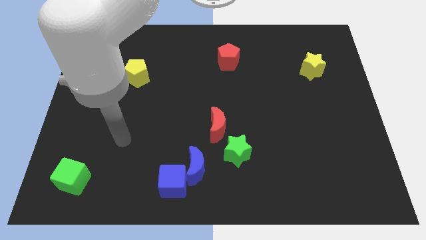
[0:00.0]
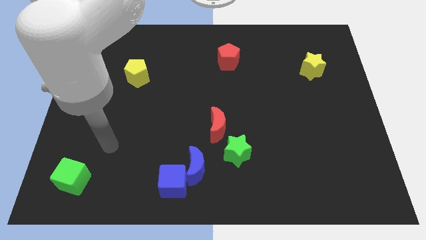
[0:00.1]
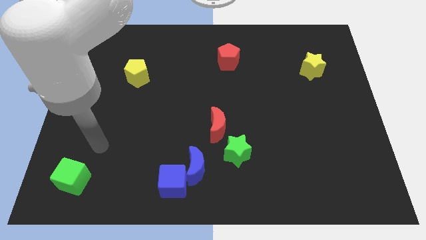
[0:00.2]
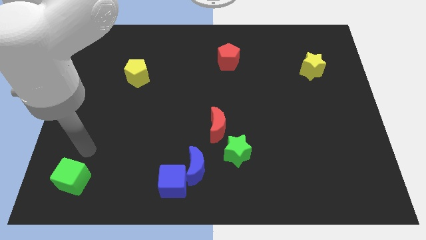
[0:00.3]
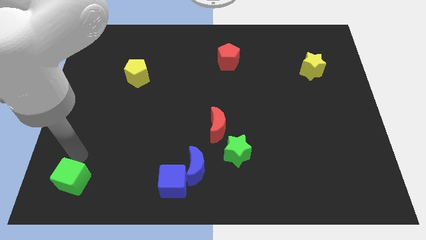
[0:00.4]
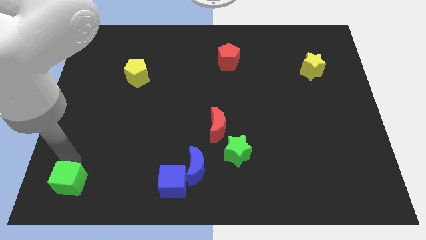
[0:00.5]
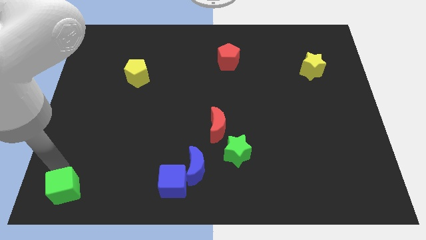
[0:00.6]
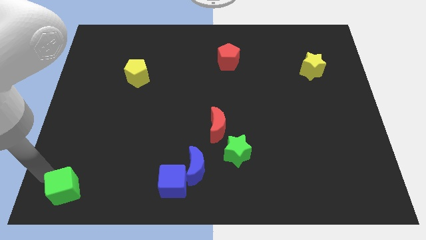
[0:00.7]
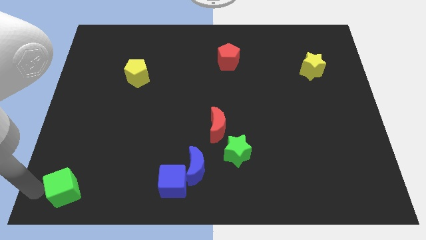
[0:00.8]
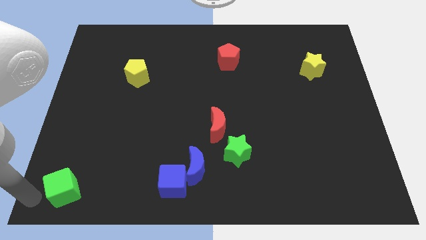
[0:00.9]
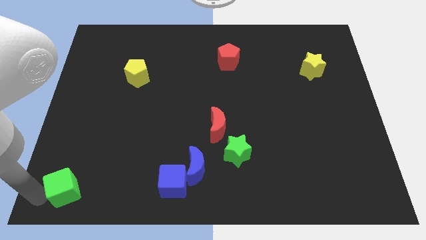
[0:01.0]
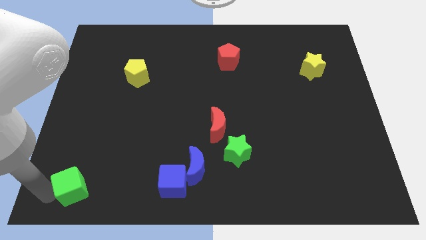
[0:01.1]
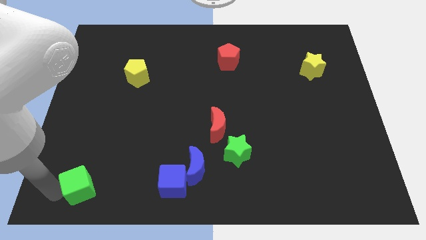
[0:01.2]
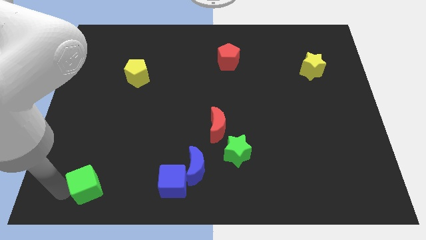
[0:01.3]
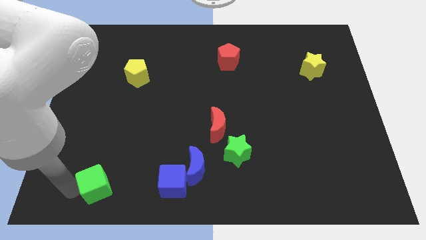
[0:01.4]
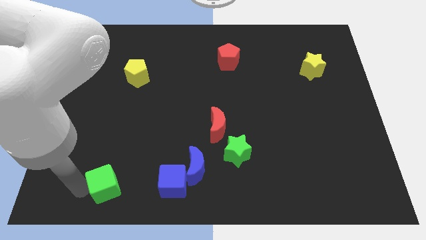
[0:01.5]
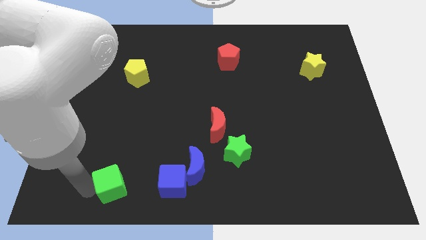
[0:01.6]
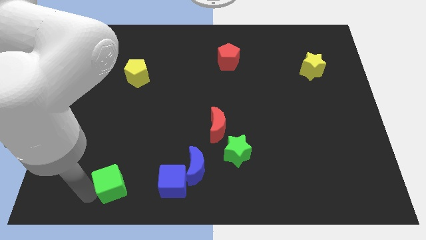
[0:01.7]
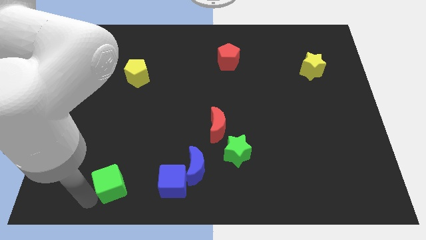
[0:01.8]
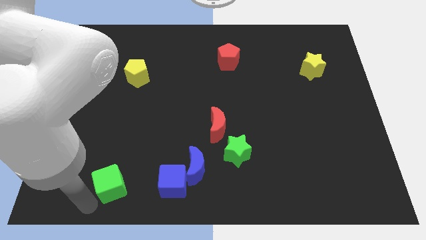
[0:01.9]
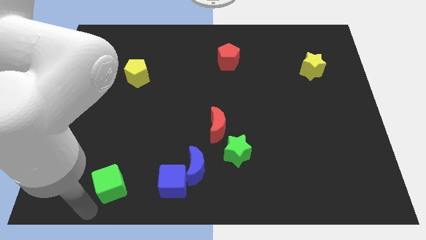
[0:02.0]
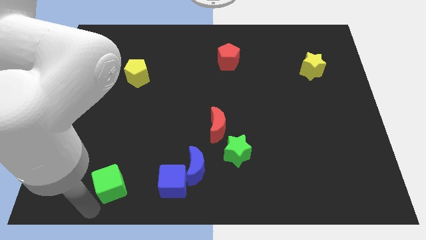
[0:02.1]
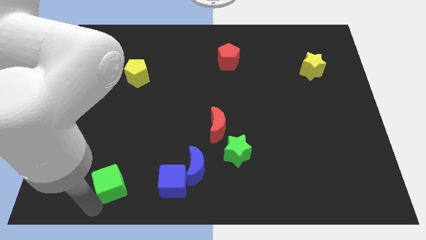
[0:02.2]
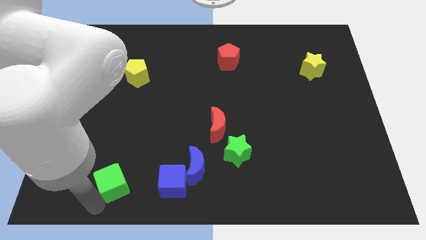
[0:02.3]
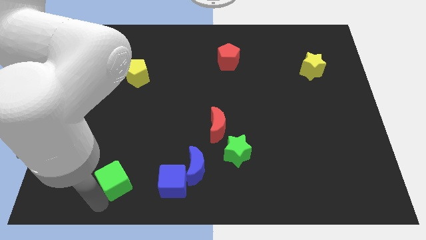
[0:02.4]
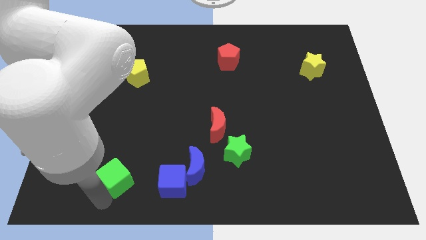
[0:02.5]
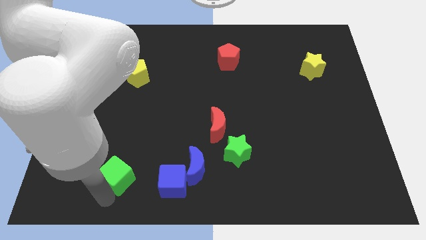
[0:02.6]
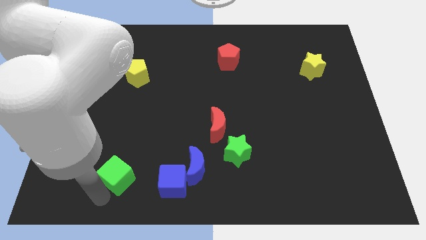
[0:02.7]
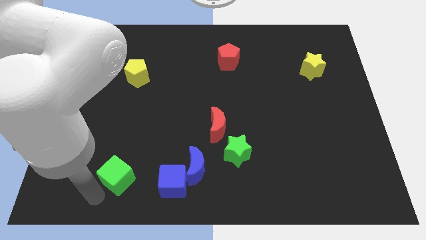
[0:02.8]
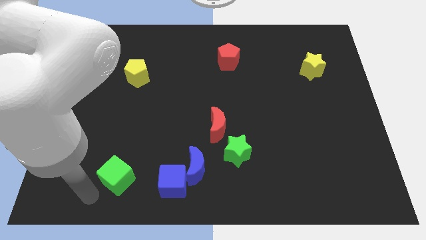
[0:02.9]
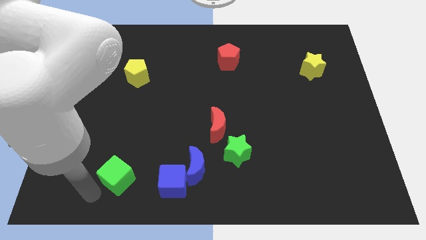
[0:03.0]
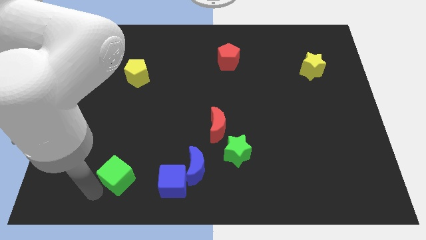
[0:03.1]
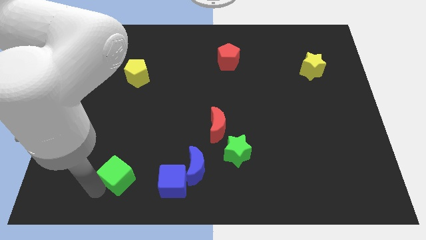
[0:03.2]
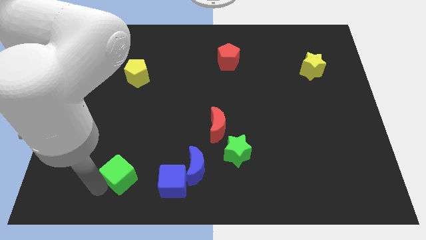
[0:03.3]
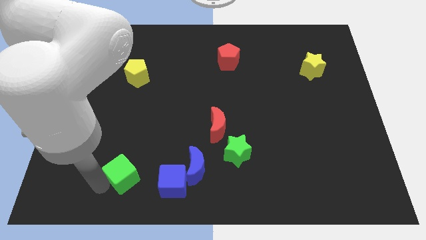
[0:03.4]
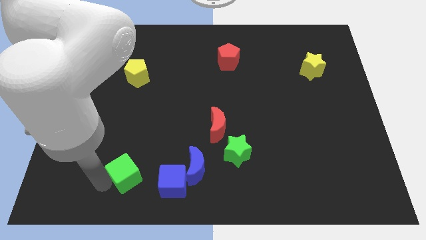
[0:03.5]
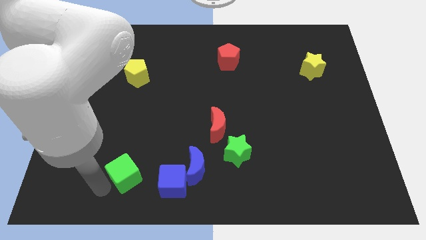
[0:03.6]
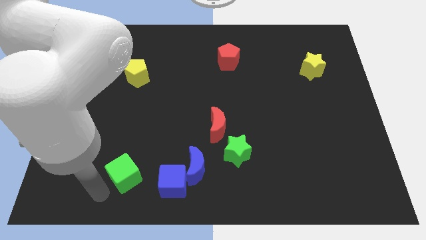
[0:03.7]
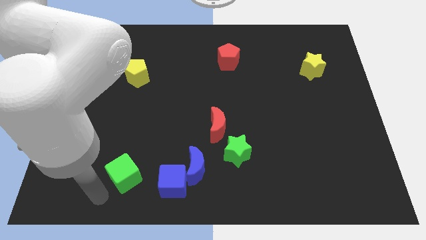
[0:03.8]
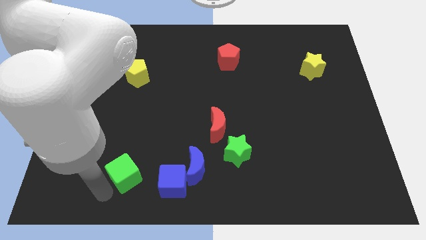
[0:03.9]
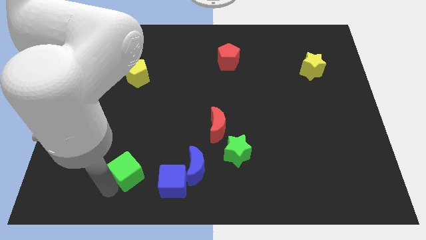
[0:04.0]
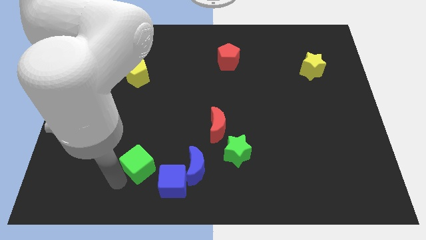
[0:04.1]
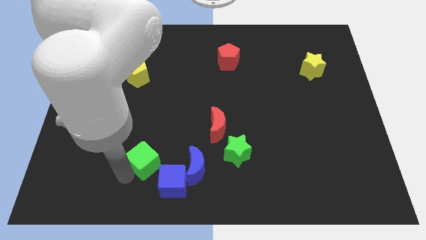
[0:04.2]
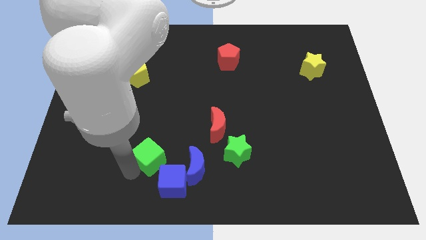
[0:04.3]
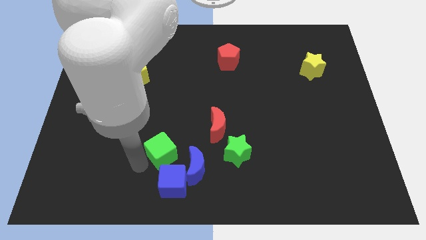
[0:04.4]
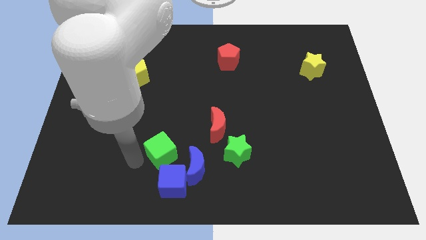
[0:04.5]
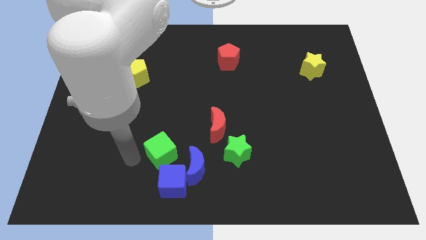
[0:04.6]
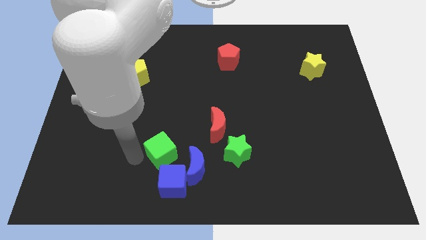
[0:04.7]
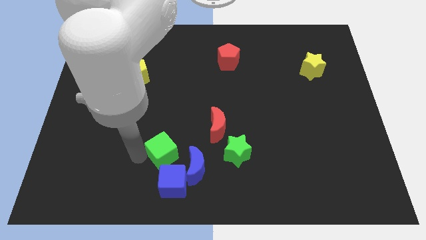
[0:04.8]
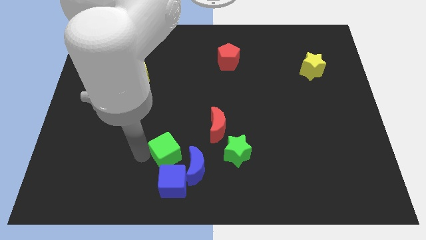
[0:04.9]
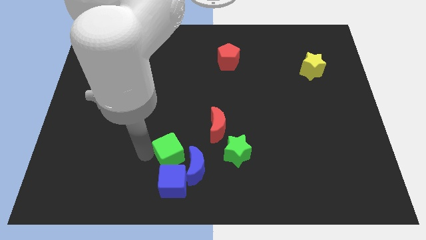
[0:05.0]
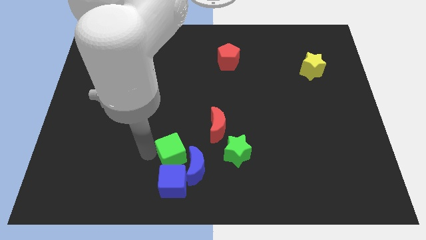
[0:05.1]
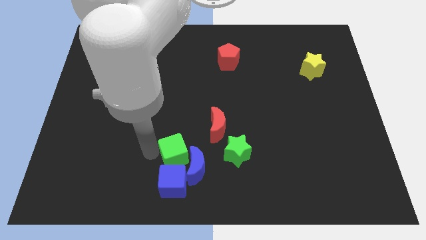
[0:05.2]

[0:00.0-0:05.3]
slide the green cube to the top right of the blue cube

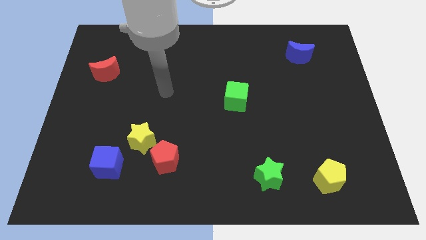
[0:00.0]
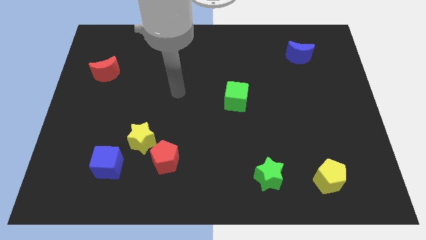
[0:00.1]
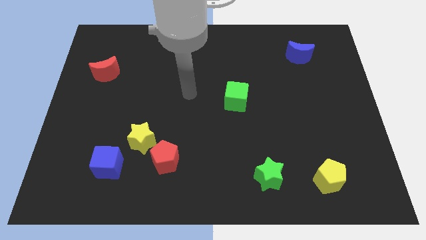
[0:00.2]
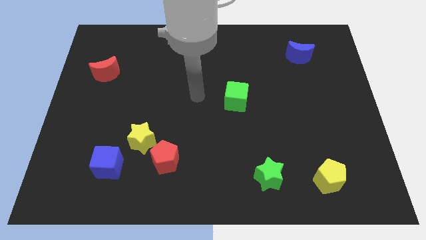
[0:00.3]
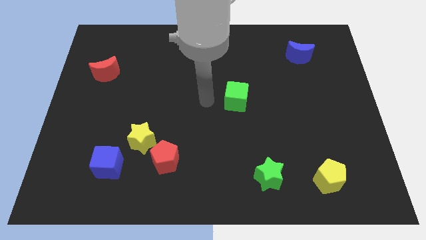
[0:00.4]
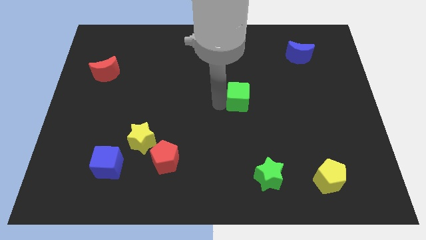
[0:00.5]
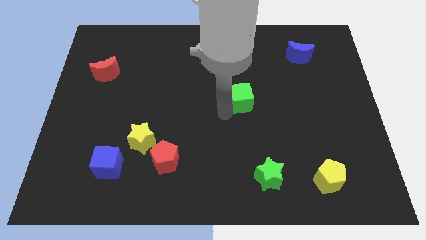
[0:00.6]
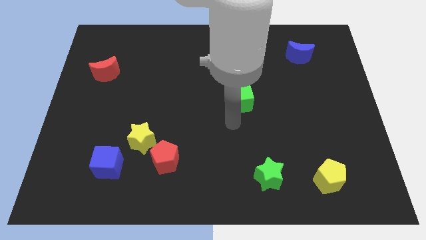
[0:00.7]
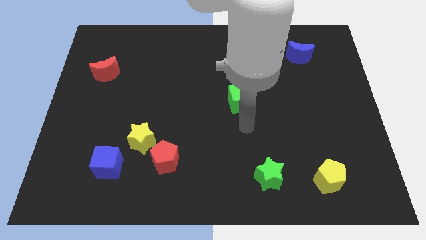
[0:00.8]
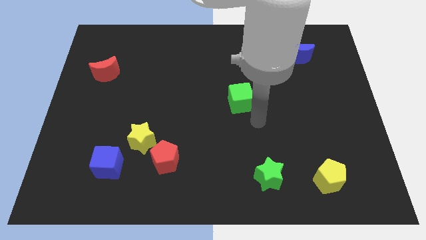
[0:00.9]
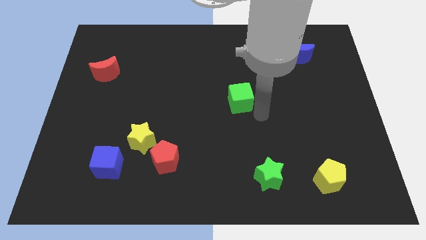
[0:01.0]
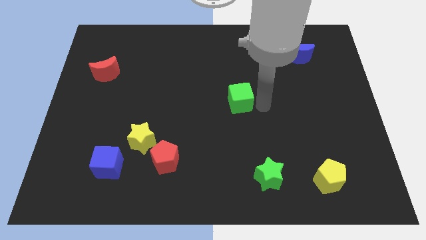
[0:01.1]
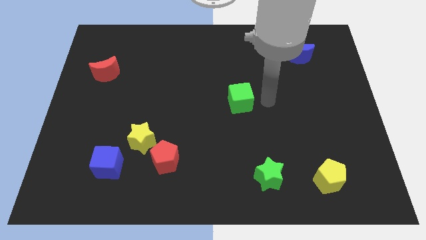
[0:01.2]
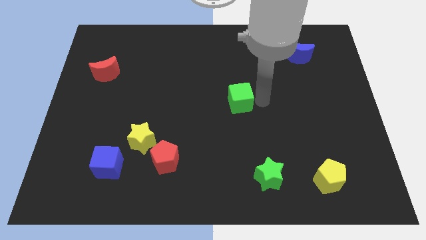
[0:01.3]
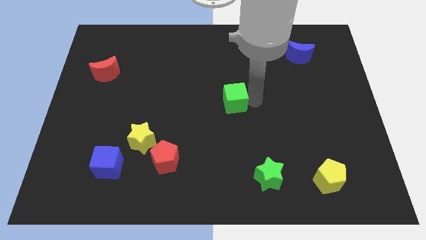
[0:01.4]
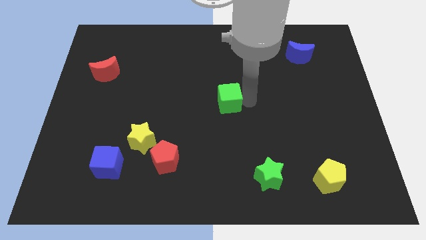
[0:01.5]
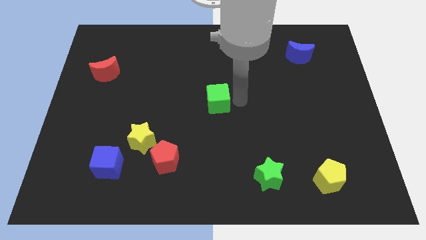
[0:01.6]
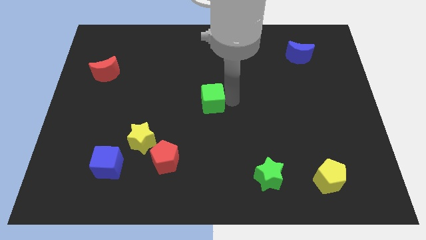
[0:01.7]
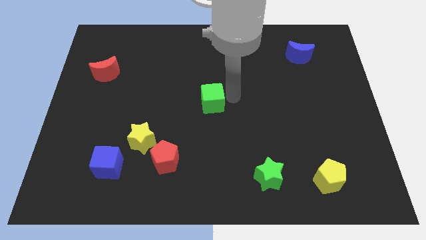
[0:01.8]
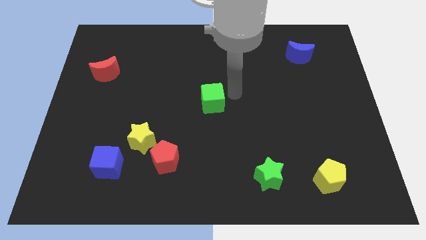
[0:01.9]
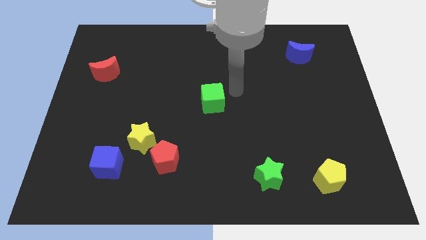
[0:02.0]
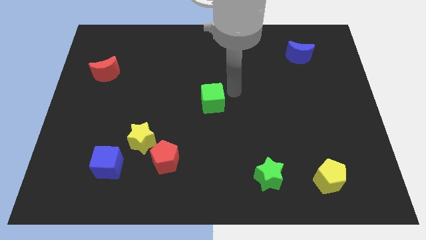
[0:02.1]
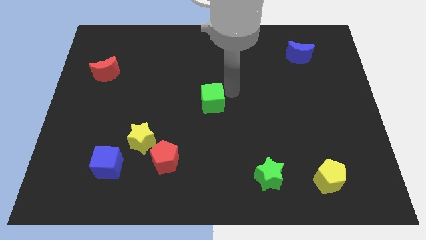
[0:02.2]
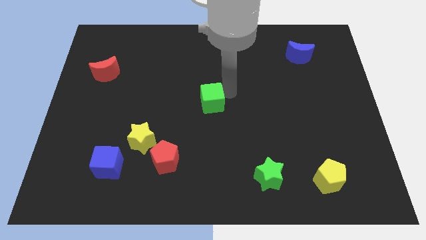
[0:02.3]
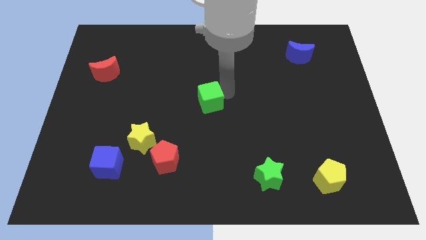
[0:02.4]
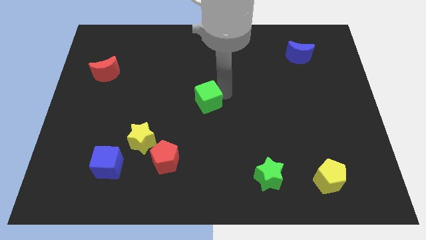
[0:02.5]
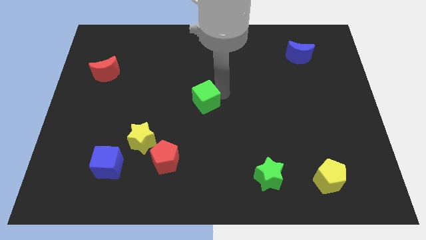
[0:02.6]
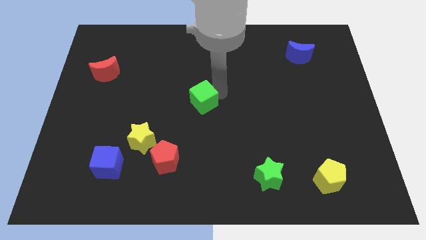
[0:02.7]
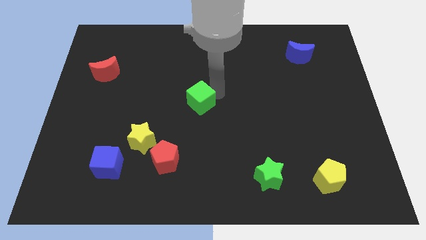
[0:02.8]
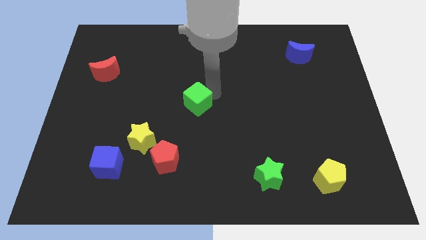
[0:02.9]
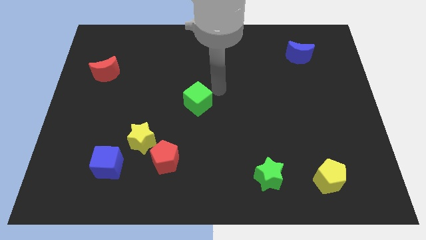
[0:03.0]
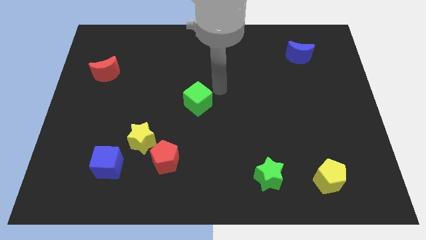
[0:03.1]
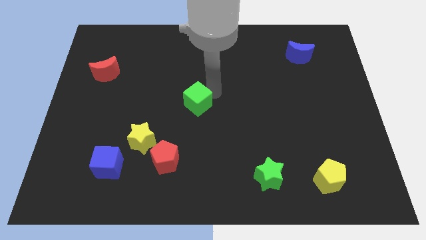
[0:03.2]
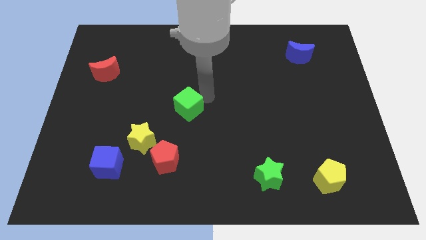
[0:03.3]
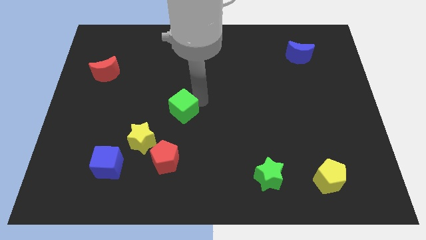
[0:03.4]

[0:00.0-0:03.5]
move the green cube diagonally up and to the right of the yellow star
